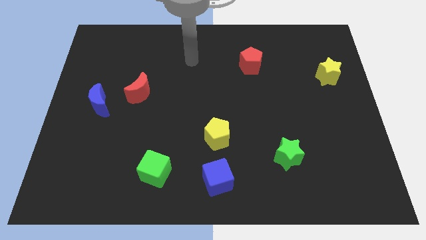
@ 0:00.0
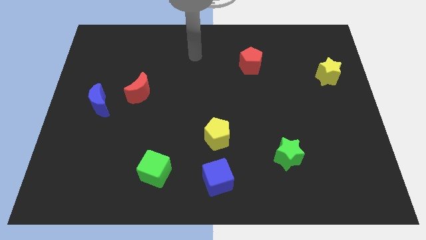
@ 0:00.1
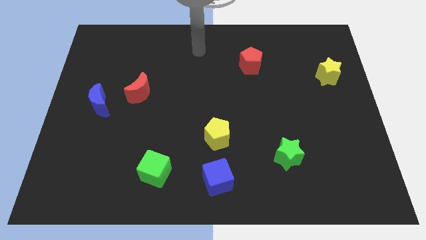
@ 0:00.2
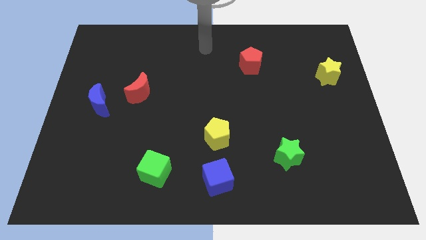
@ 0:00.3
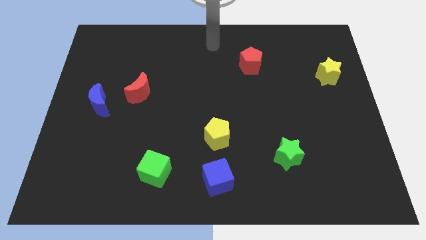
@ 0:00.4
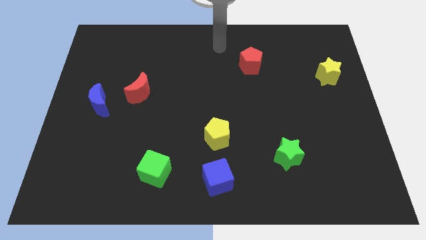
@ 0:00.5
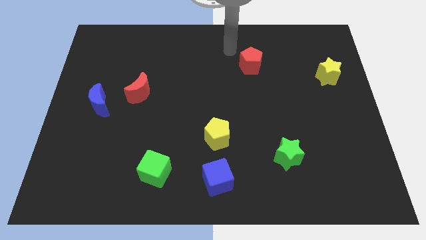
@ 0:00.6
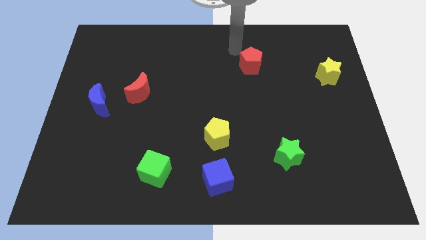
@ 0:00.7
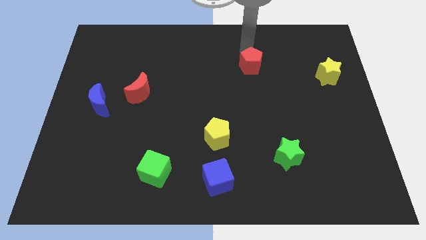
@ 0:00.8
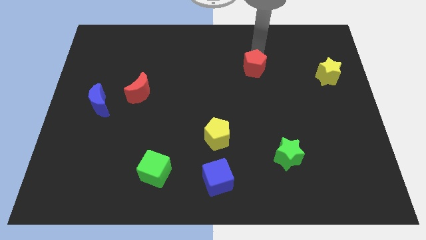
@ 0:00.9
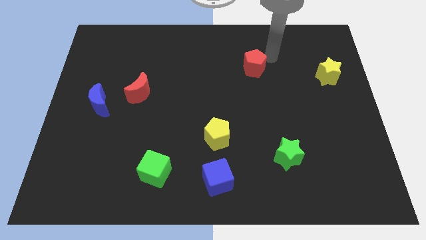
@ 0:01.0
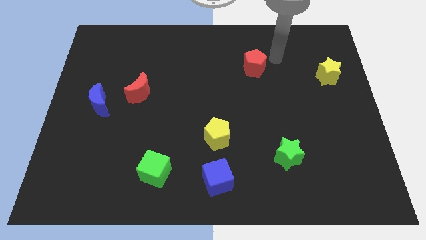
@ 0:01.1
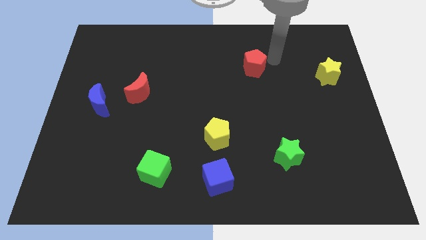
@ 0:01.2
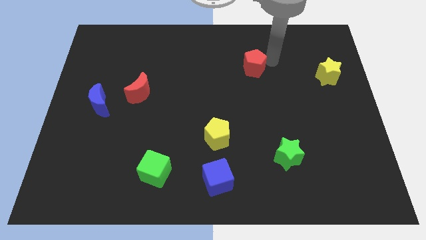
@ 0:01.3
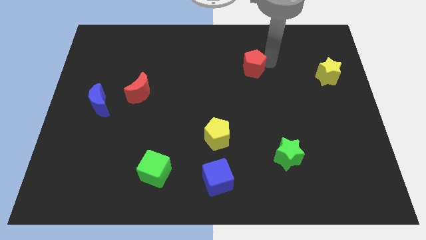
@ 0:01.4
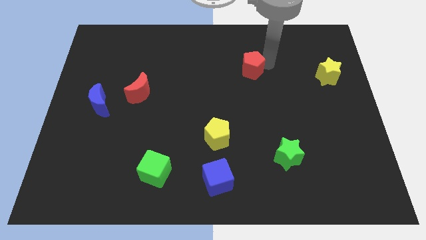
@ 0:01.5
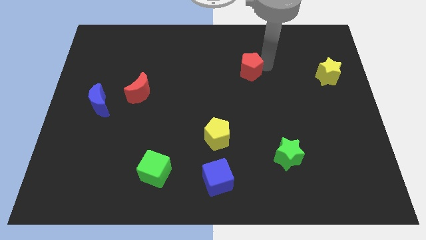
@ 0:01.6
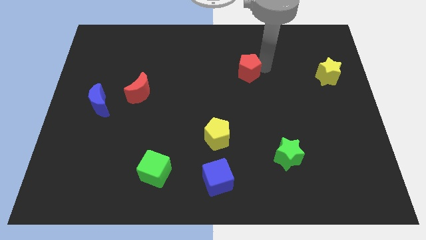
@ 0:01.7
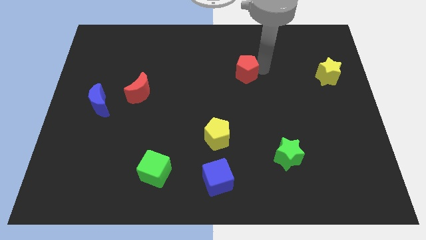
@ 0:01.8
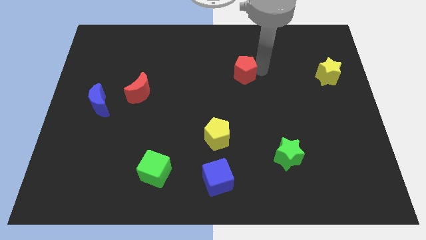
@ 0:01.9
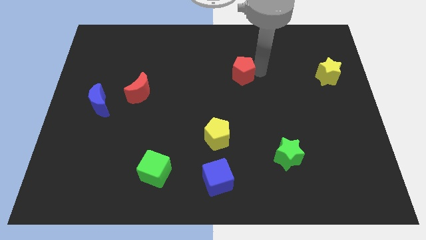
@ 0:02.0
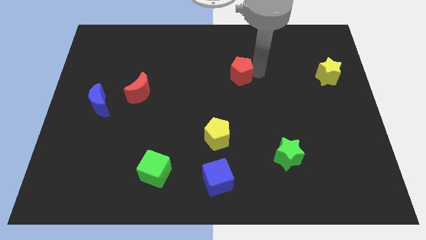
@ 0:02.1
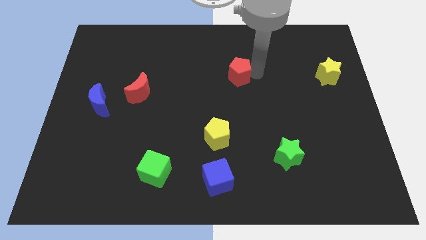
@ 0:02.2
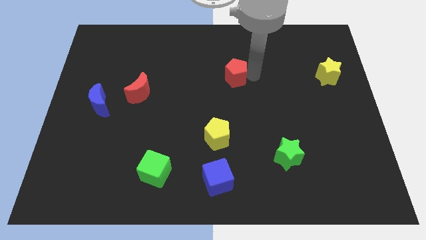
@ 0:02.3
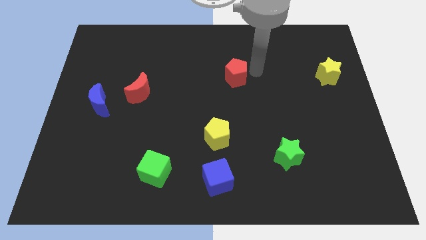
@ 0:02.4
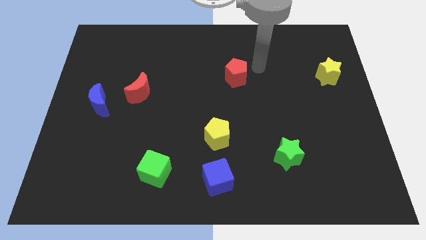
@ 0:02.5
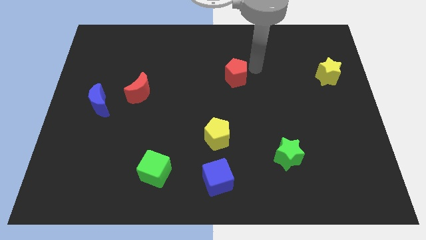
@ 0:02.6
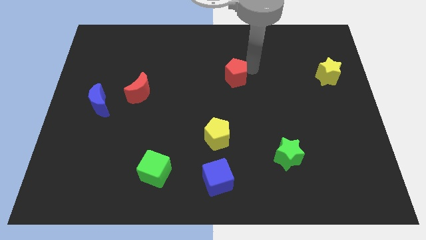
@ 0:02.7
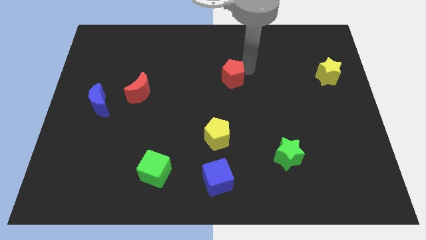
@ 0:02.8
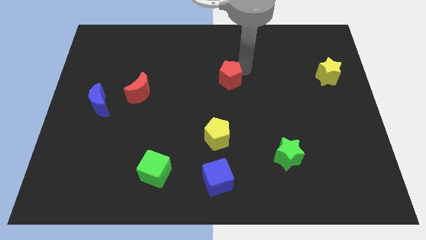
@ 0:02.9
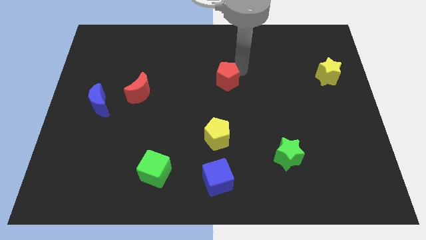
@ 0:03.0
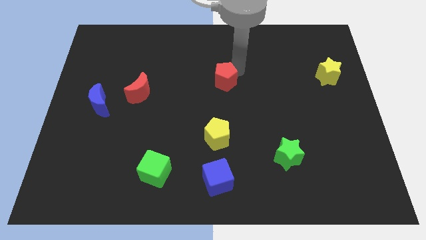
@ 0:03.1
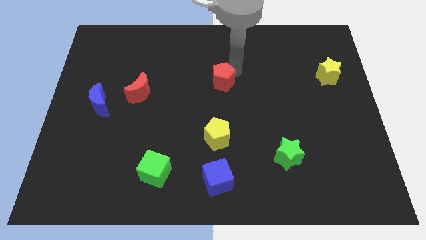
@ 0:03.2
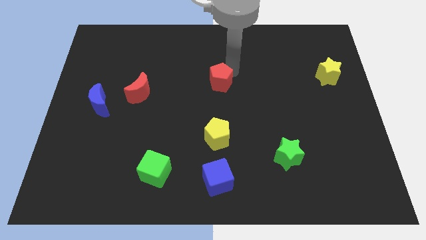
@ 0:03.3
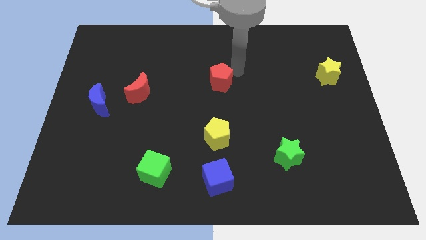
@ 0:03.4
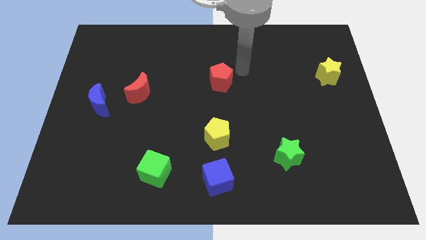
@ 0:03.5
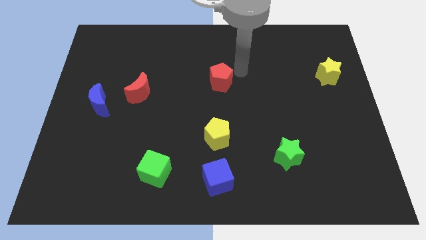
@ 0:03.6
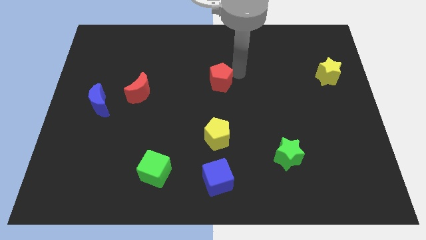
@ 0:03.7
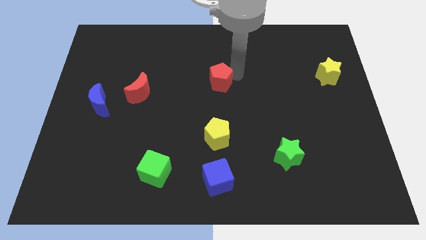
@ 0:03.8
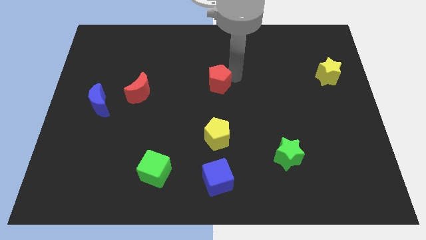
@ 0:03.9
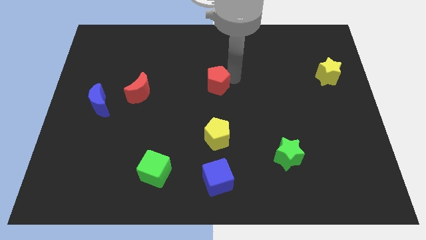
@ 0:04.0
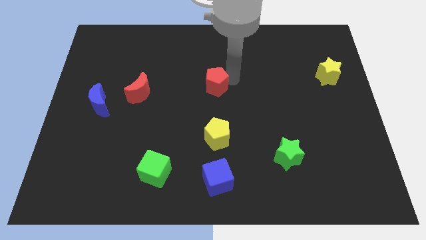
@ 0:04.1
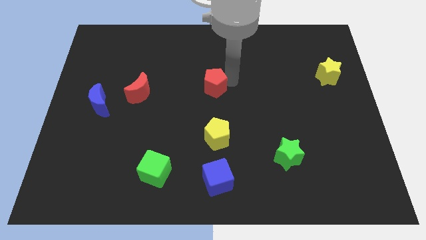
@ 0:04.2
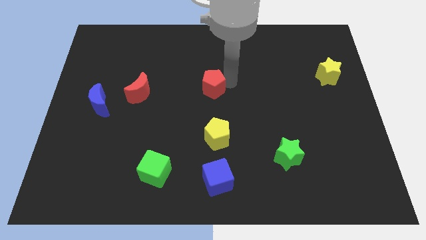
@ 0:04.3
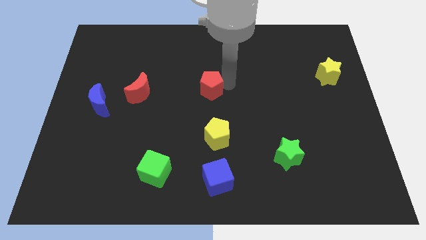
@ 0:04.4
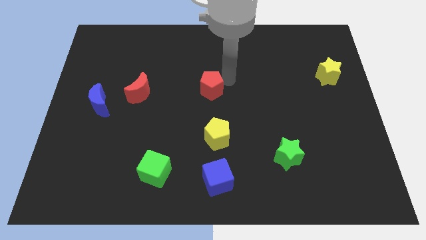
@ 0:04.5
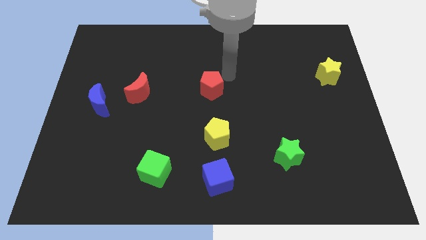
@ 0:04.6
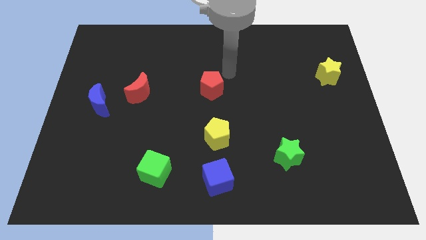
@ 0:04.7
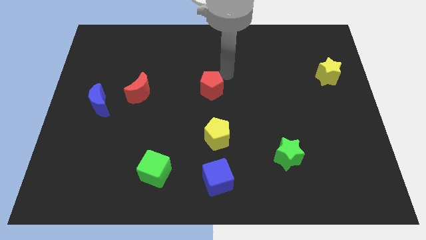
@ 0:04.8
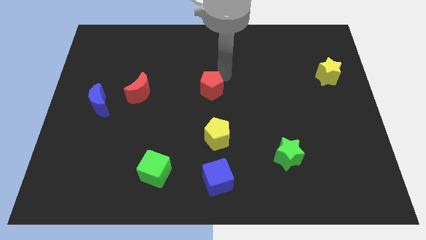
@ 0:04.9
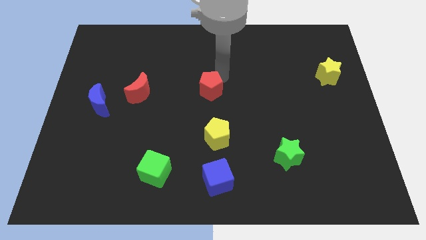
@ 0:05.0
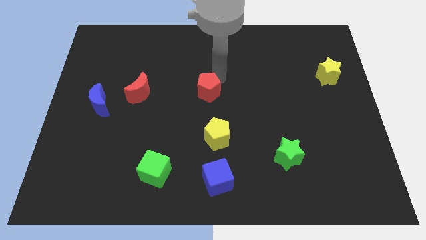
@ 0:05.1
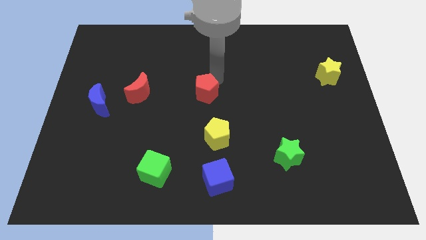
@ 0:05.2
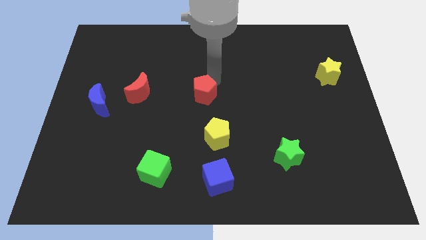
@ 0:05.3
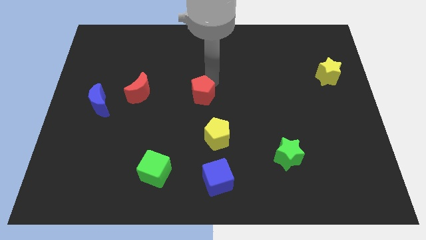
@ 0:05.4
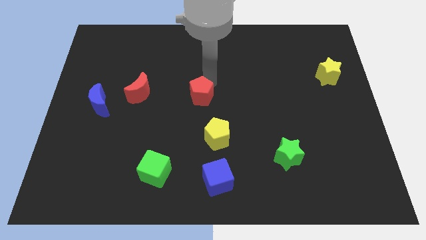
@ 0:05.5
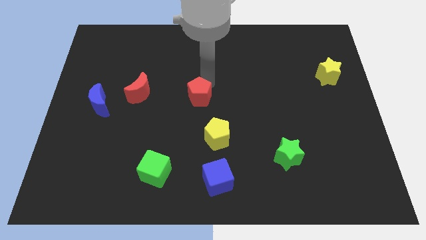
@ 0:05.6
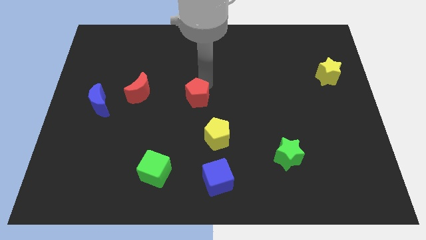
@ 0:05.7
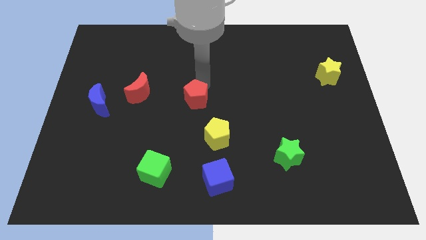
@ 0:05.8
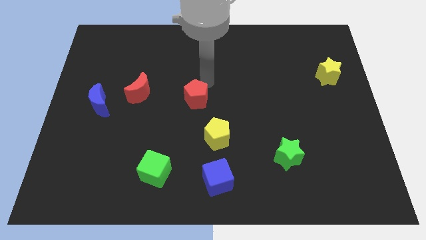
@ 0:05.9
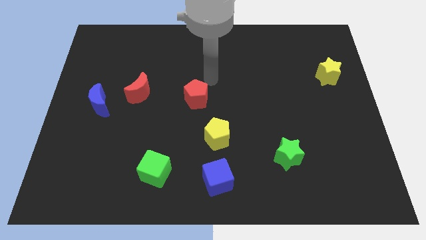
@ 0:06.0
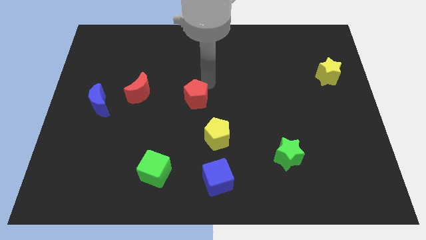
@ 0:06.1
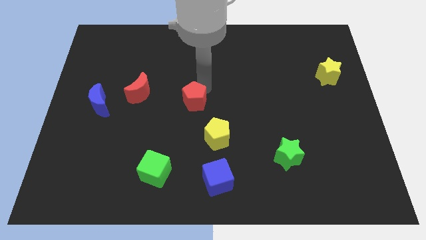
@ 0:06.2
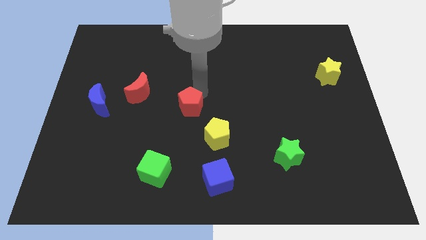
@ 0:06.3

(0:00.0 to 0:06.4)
slide the red pentagon down and to the left

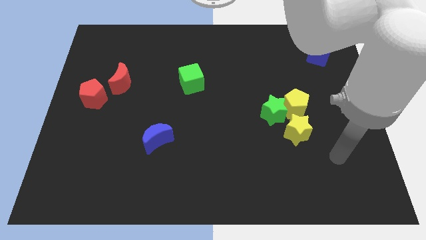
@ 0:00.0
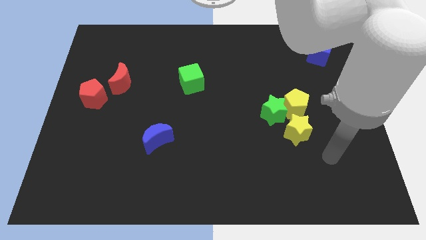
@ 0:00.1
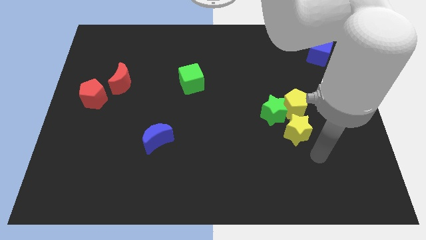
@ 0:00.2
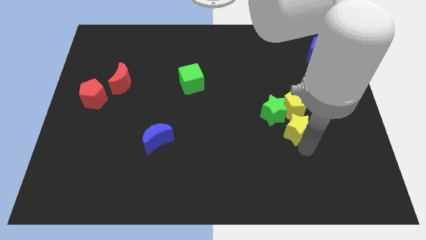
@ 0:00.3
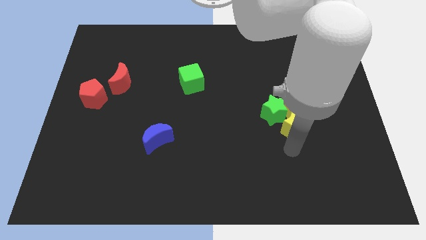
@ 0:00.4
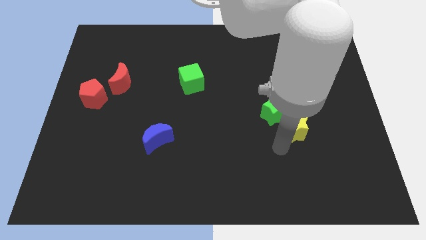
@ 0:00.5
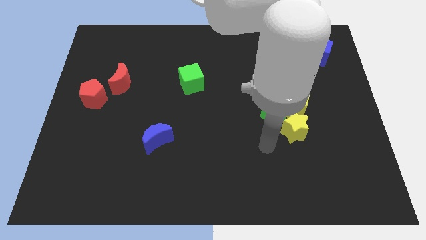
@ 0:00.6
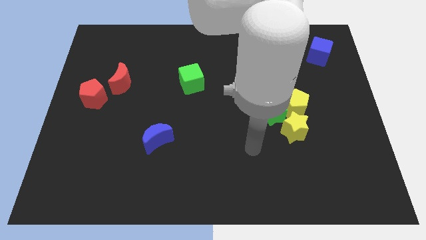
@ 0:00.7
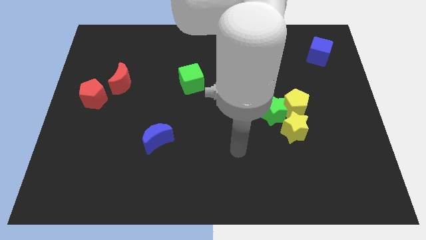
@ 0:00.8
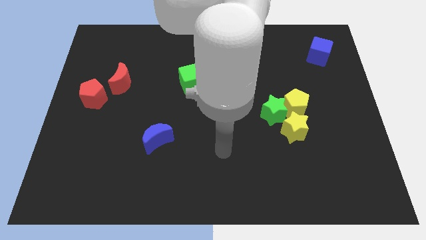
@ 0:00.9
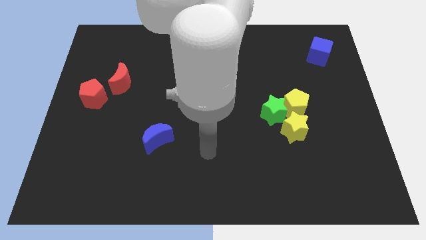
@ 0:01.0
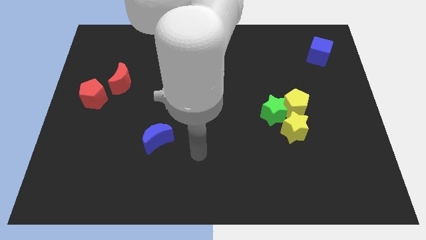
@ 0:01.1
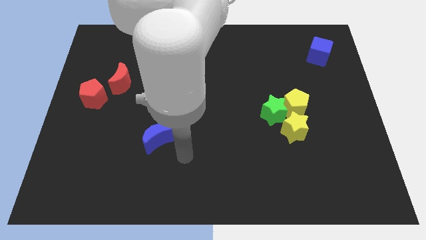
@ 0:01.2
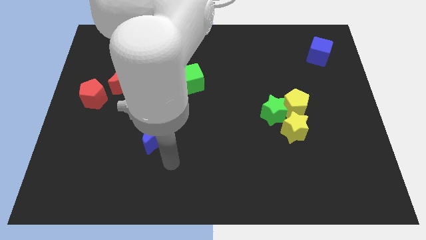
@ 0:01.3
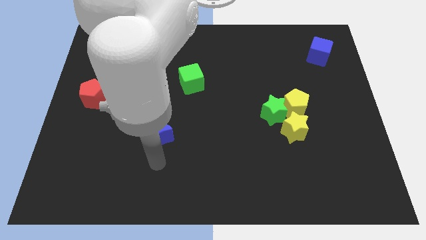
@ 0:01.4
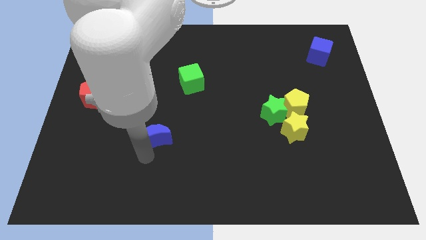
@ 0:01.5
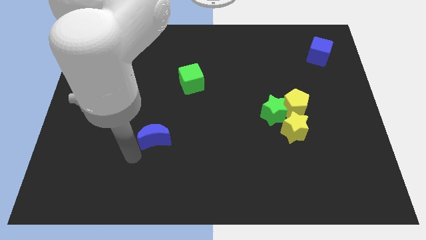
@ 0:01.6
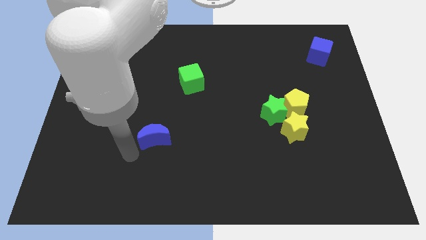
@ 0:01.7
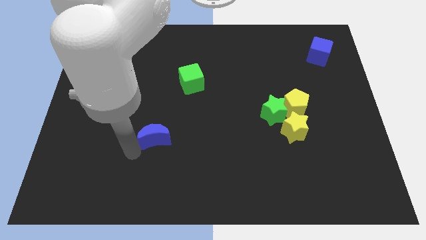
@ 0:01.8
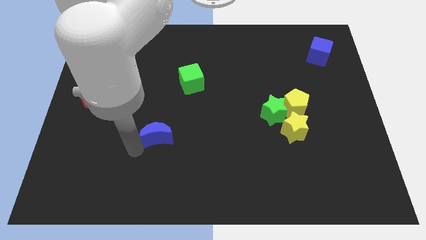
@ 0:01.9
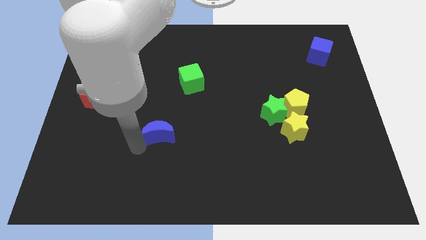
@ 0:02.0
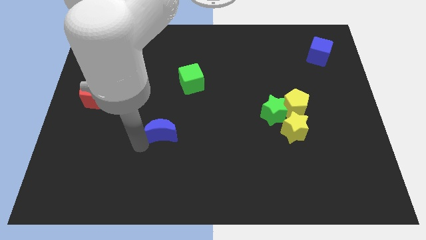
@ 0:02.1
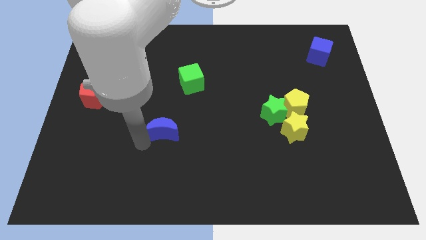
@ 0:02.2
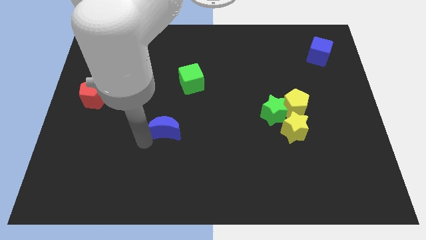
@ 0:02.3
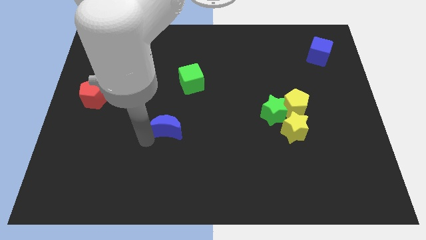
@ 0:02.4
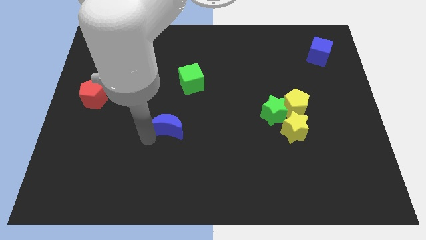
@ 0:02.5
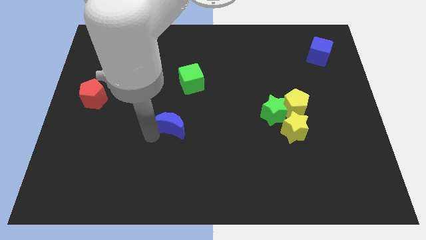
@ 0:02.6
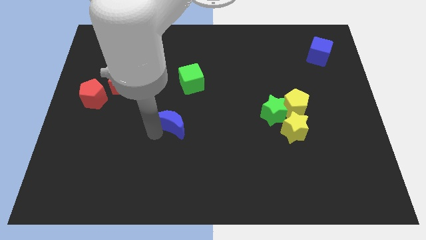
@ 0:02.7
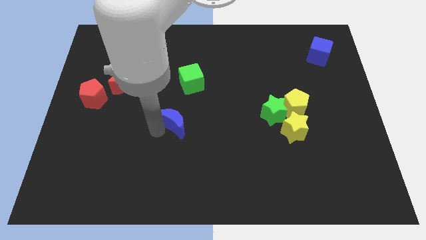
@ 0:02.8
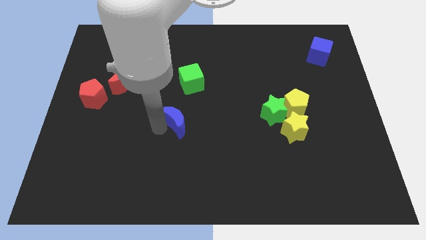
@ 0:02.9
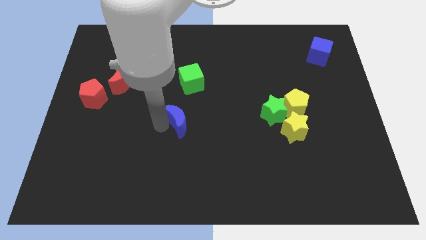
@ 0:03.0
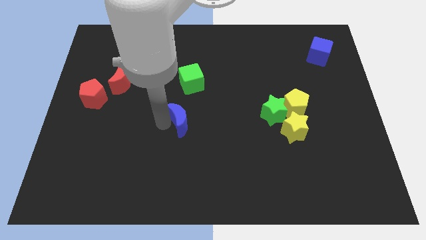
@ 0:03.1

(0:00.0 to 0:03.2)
slightly push the blue moon up and then right
